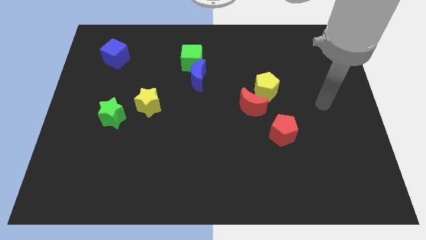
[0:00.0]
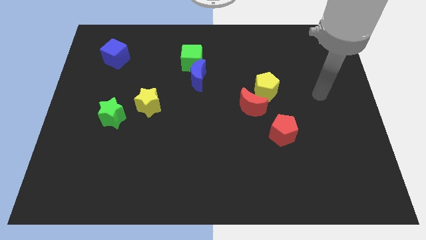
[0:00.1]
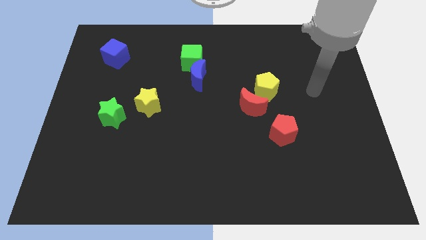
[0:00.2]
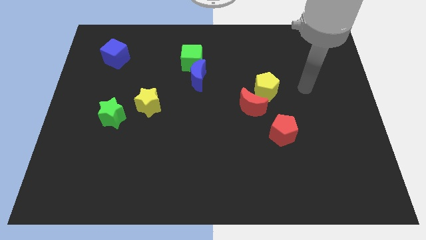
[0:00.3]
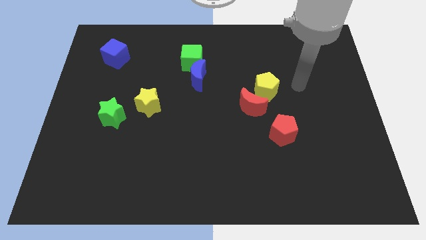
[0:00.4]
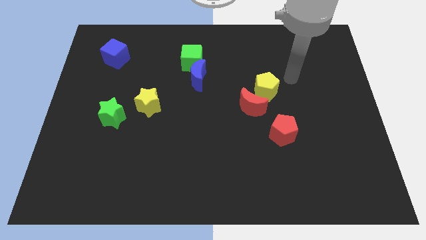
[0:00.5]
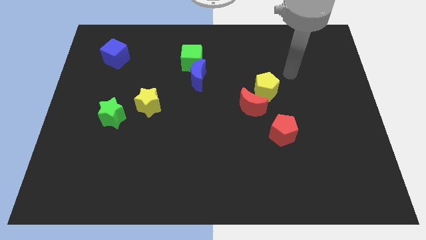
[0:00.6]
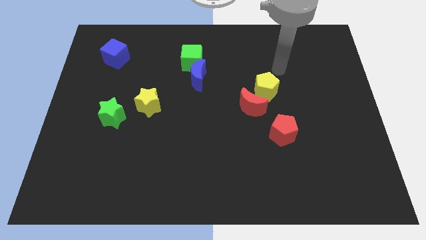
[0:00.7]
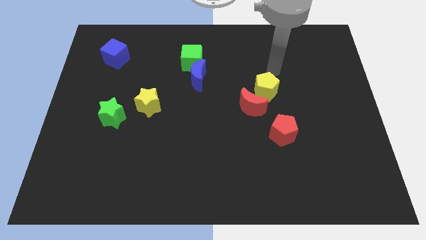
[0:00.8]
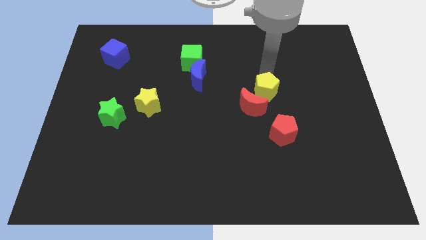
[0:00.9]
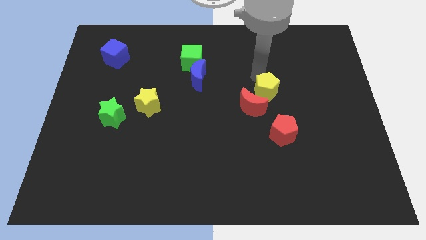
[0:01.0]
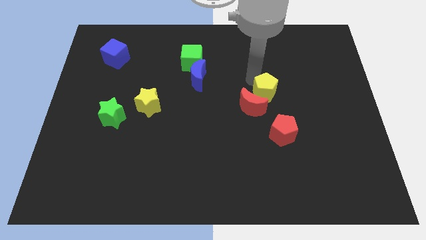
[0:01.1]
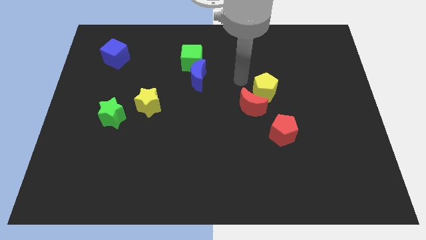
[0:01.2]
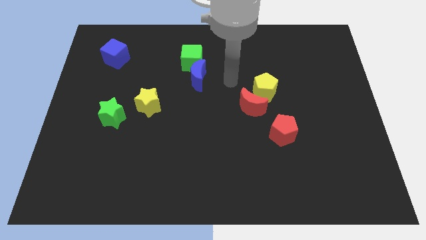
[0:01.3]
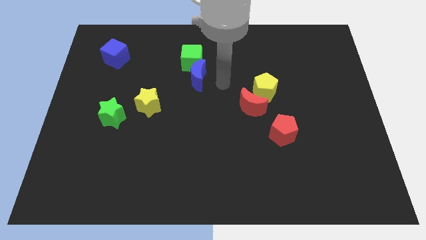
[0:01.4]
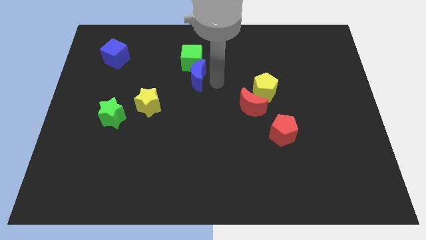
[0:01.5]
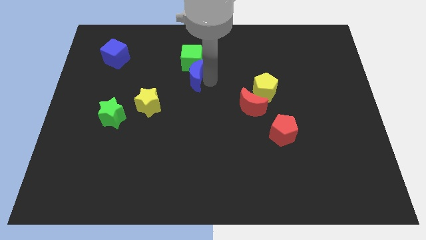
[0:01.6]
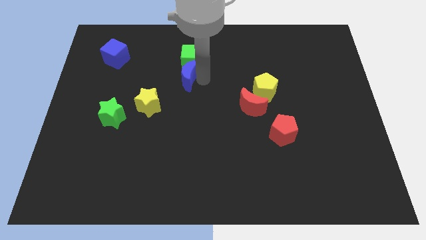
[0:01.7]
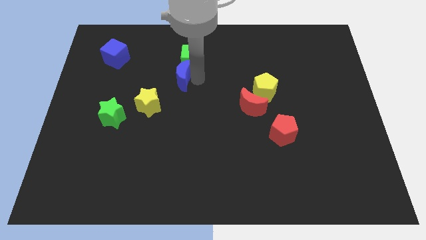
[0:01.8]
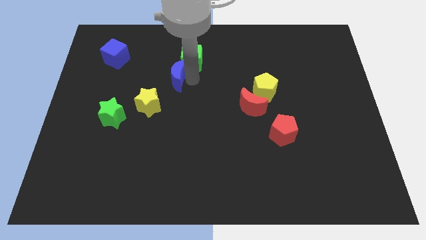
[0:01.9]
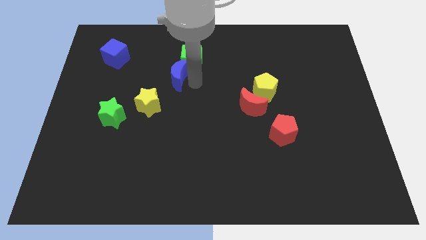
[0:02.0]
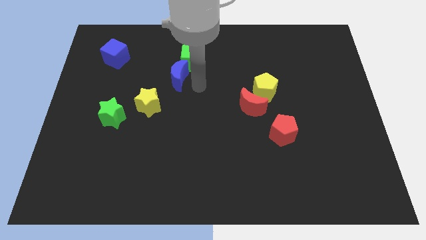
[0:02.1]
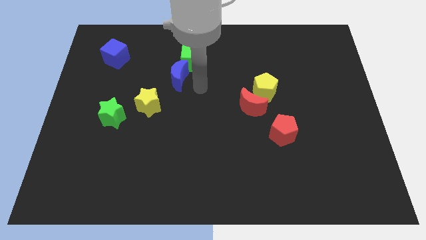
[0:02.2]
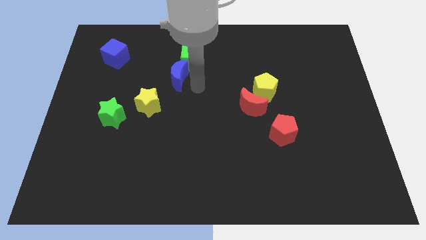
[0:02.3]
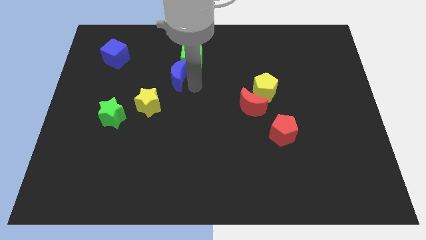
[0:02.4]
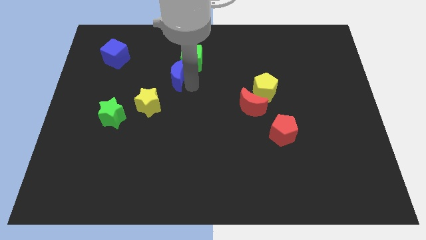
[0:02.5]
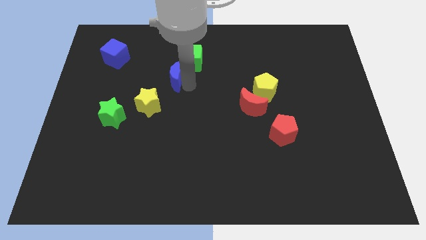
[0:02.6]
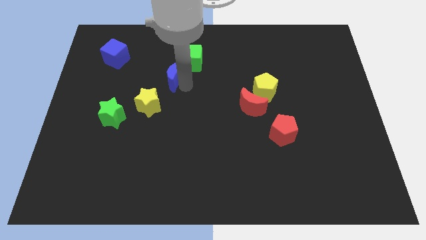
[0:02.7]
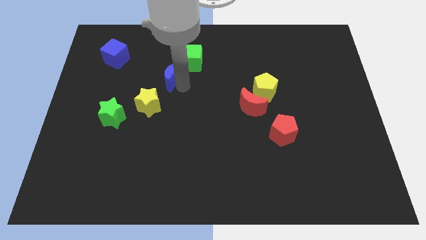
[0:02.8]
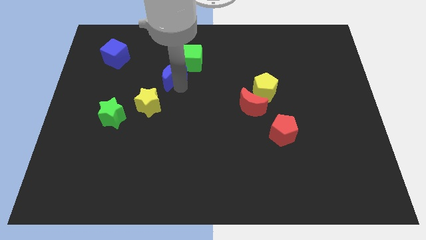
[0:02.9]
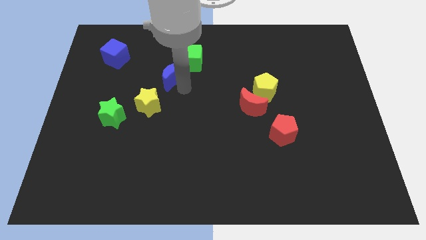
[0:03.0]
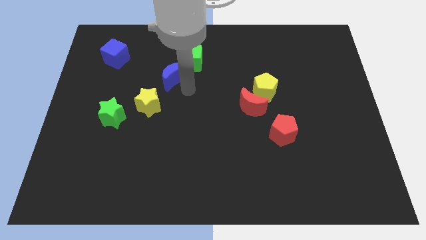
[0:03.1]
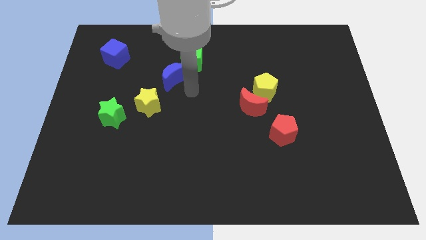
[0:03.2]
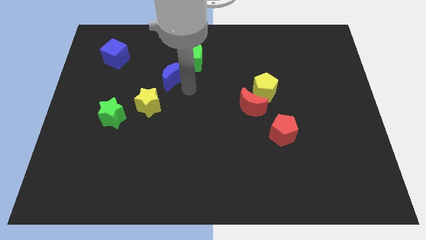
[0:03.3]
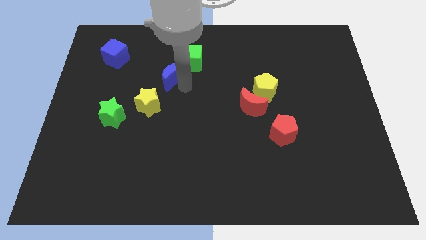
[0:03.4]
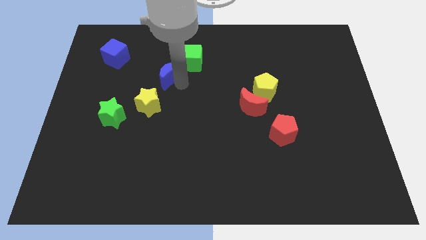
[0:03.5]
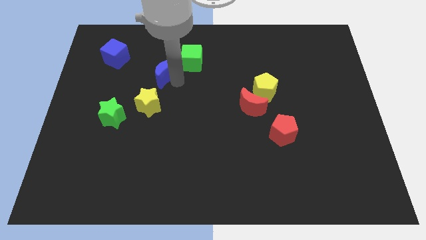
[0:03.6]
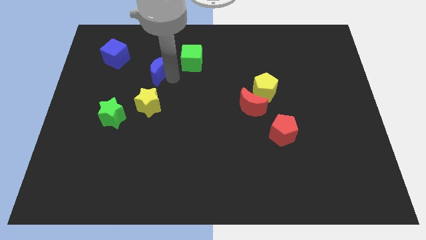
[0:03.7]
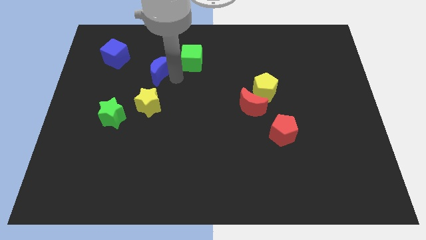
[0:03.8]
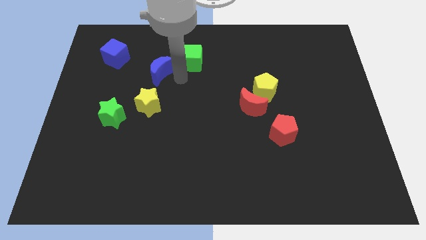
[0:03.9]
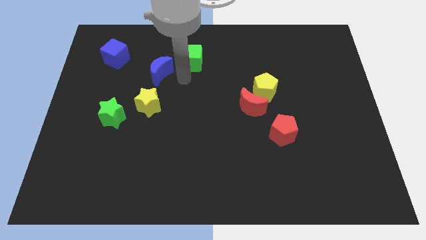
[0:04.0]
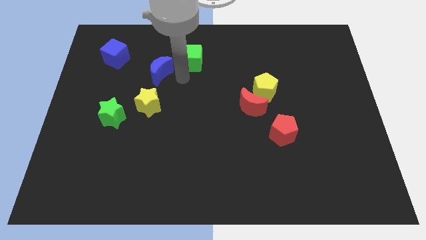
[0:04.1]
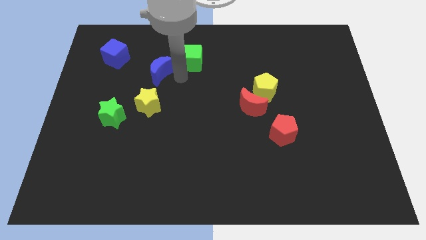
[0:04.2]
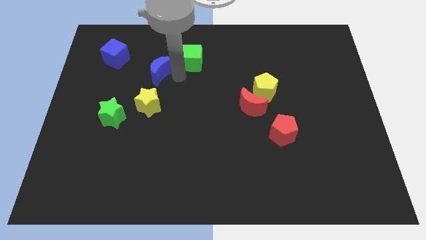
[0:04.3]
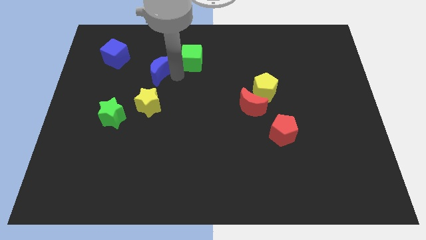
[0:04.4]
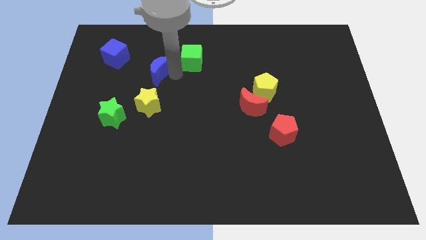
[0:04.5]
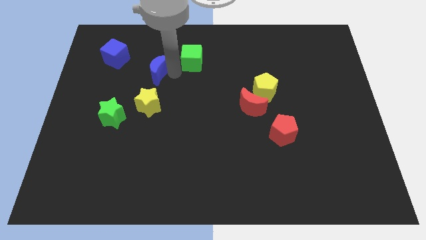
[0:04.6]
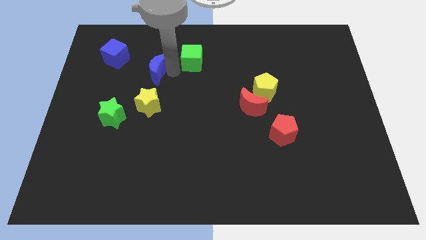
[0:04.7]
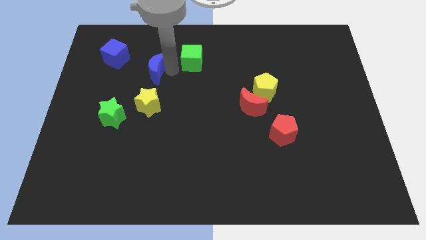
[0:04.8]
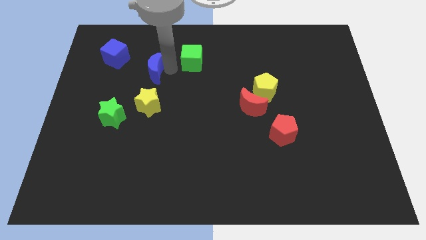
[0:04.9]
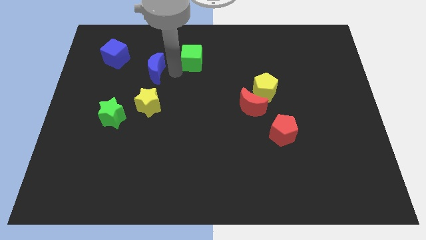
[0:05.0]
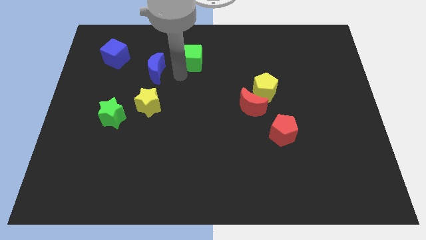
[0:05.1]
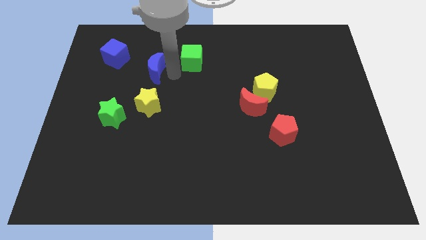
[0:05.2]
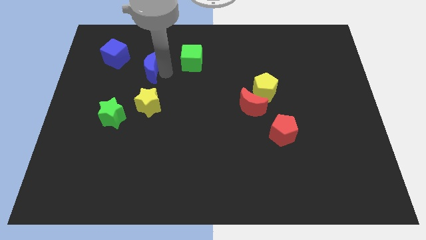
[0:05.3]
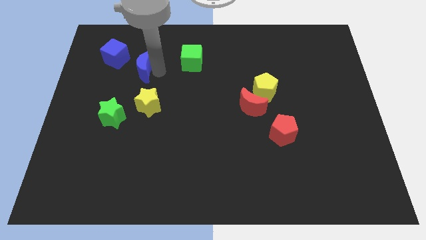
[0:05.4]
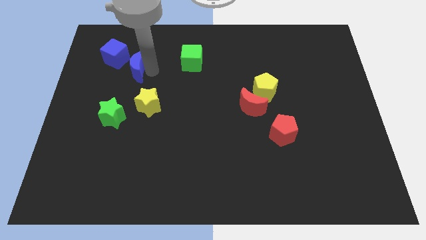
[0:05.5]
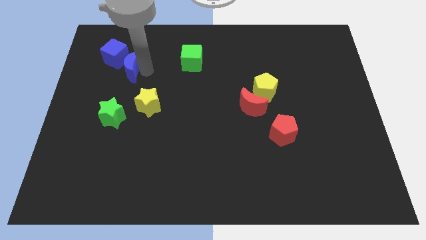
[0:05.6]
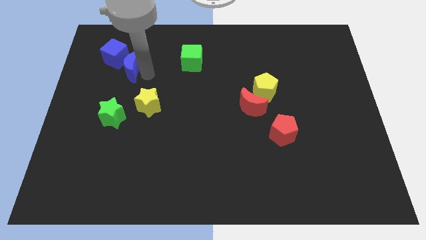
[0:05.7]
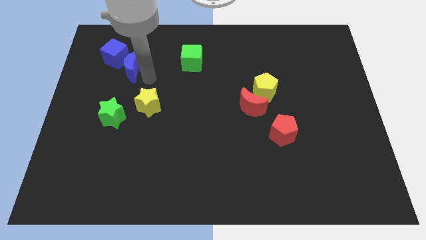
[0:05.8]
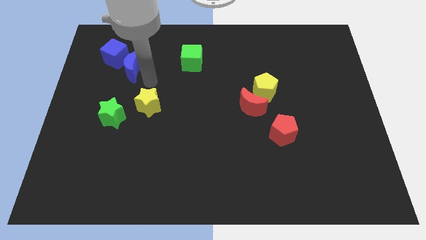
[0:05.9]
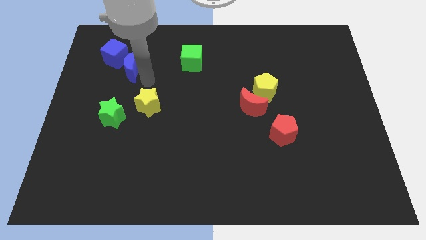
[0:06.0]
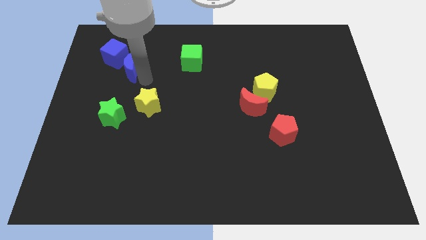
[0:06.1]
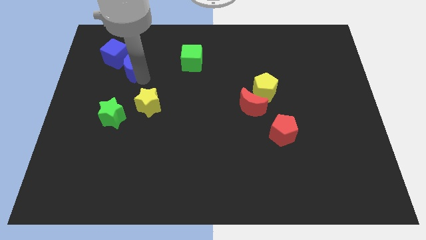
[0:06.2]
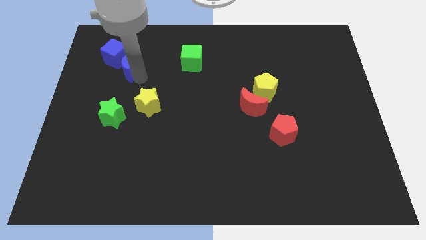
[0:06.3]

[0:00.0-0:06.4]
slide the blue moon towards the blue cube
